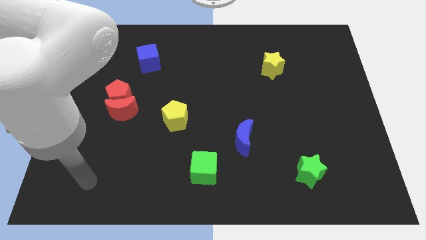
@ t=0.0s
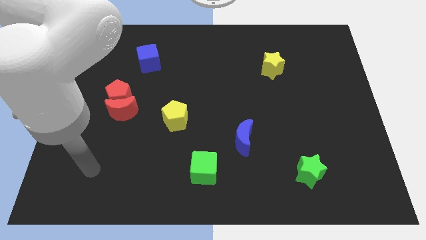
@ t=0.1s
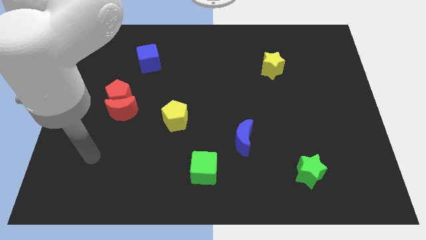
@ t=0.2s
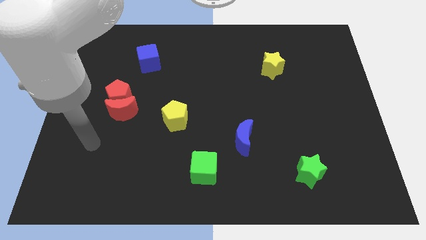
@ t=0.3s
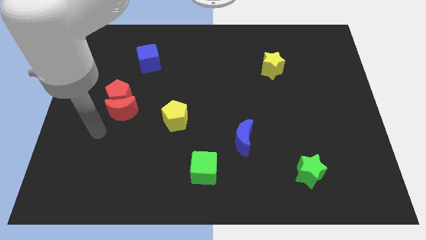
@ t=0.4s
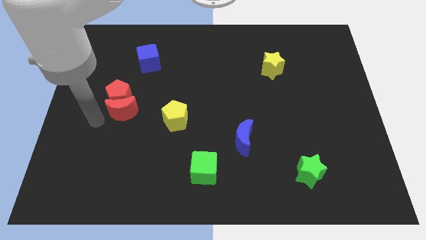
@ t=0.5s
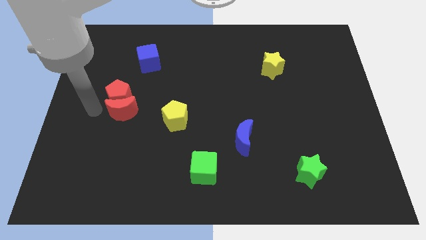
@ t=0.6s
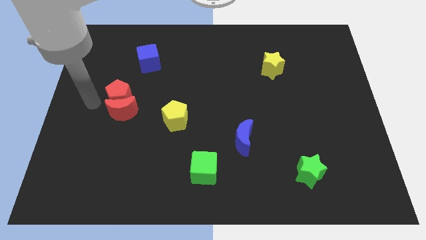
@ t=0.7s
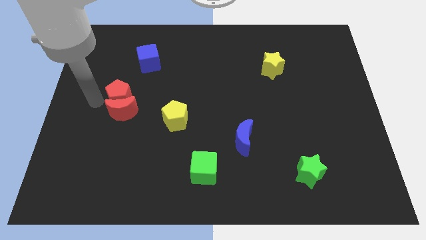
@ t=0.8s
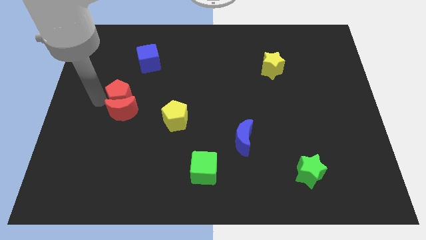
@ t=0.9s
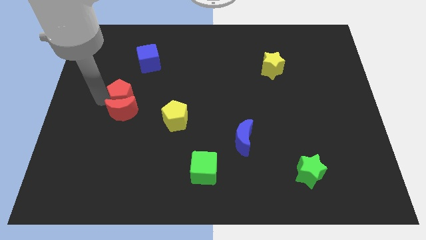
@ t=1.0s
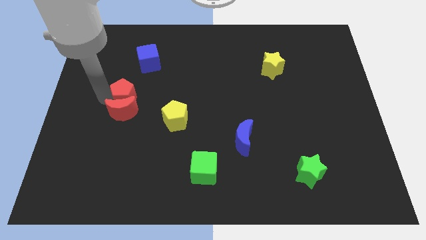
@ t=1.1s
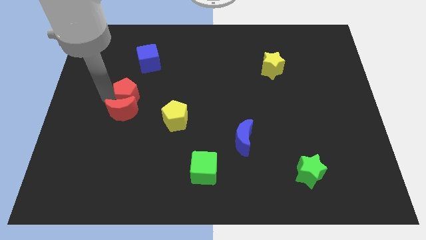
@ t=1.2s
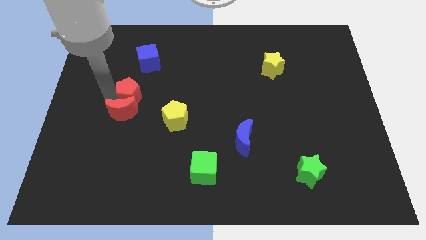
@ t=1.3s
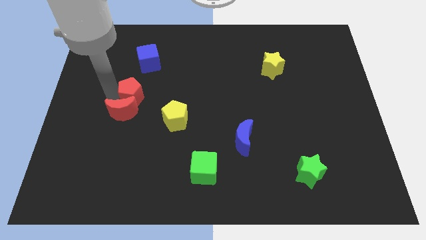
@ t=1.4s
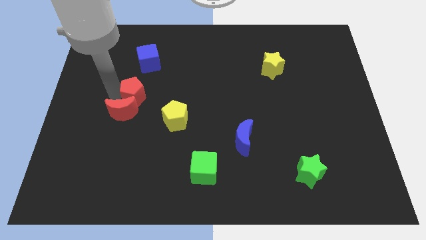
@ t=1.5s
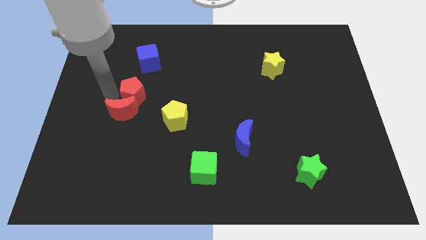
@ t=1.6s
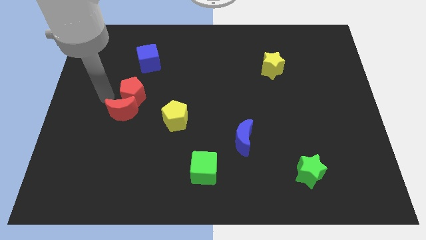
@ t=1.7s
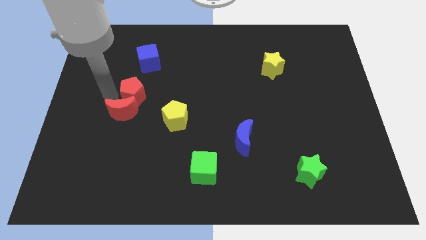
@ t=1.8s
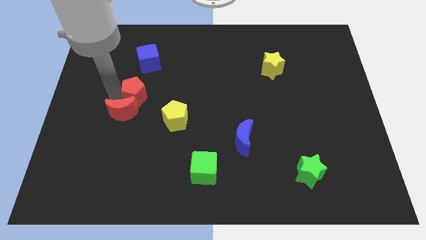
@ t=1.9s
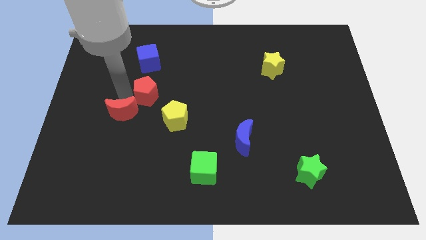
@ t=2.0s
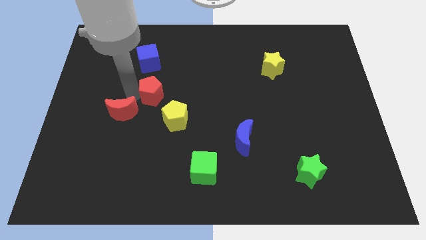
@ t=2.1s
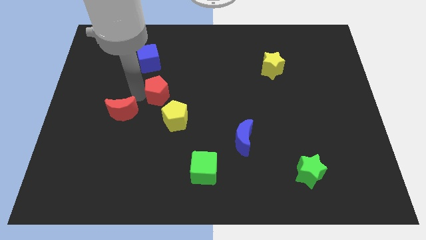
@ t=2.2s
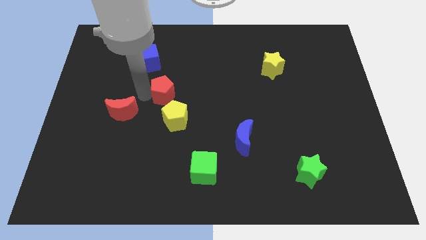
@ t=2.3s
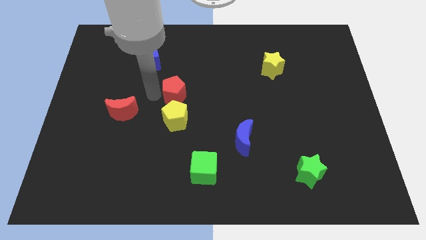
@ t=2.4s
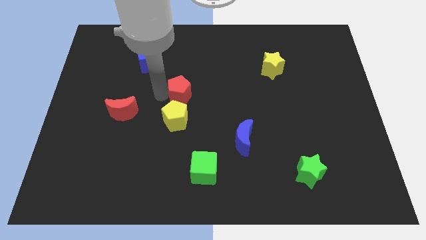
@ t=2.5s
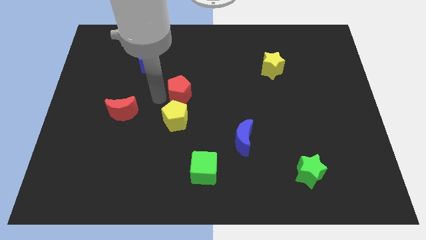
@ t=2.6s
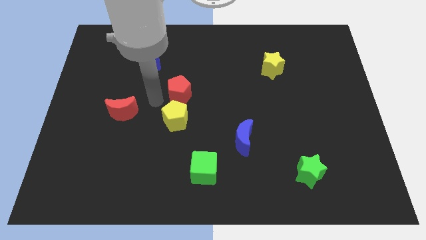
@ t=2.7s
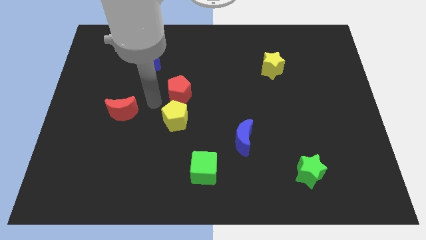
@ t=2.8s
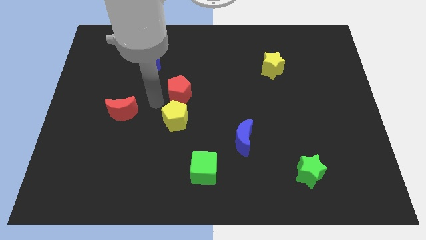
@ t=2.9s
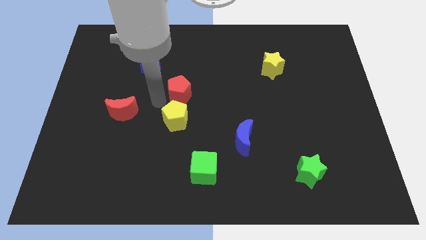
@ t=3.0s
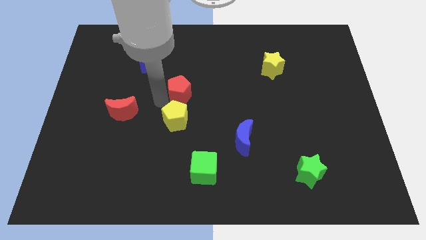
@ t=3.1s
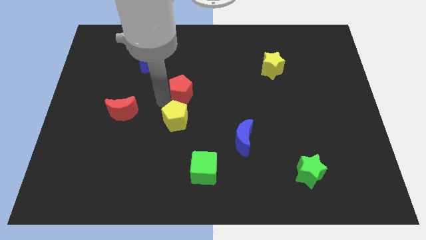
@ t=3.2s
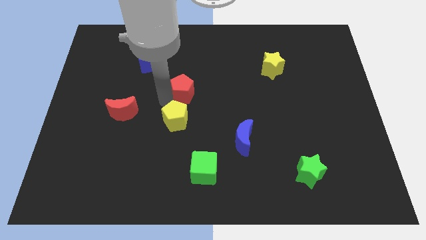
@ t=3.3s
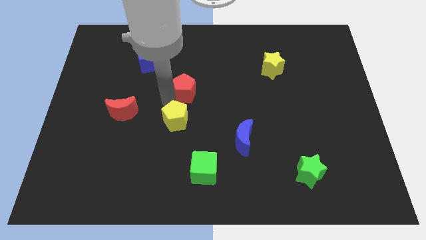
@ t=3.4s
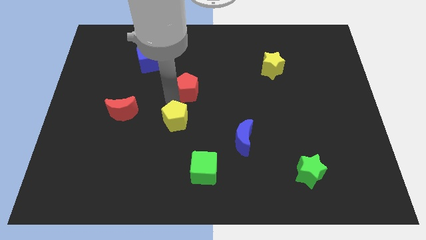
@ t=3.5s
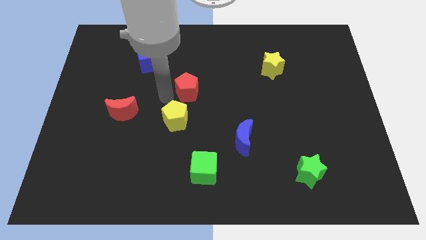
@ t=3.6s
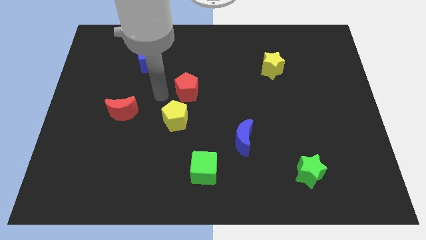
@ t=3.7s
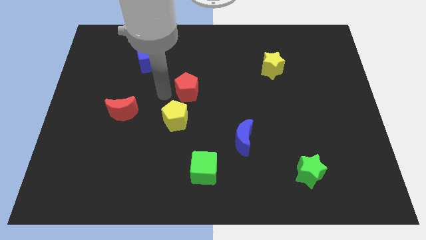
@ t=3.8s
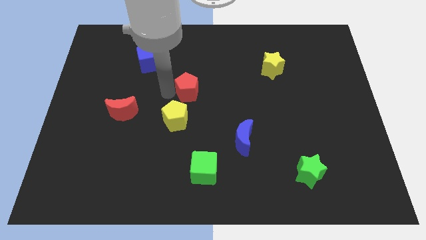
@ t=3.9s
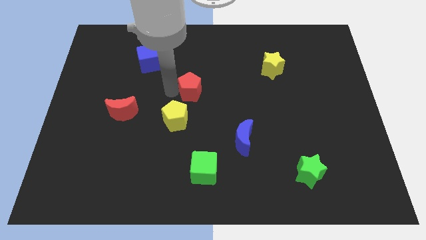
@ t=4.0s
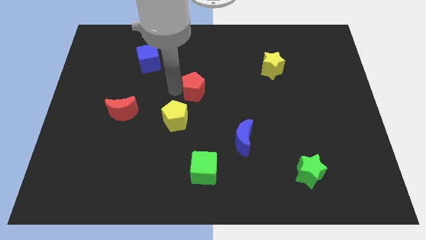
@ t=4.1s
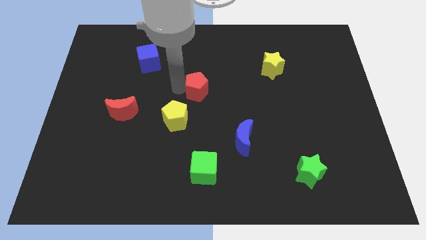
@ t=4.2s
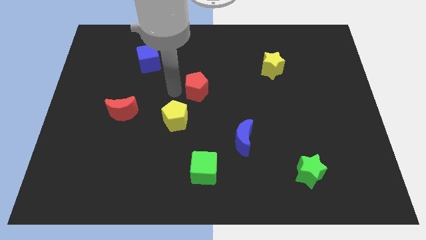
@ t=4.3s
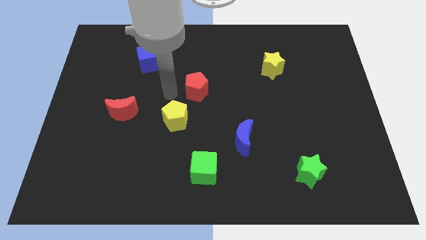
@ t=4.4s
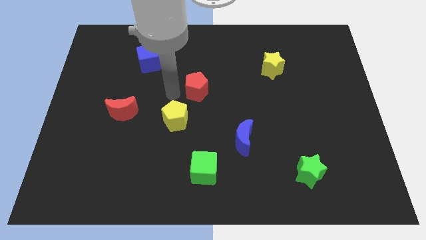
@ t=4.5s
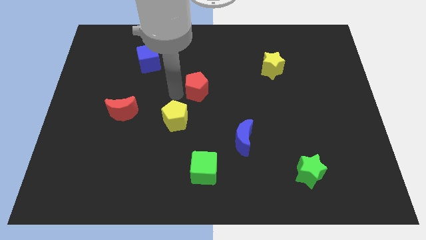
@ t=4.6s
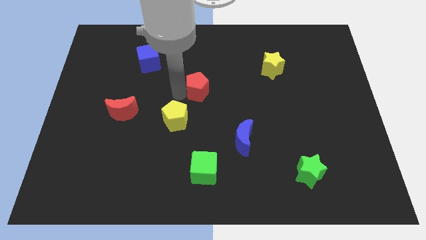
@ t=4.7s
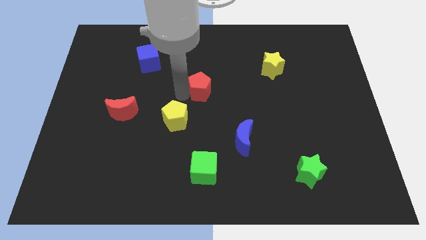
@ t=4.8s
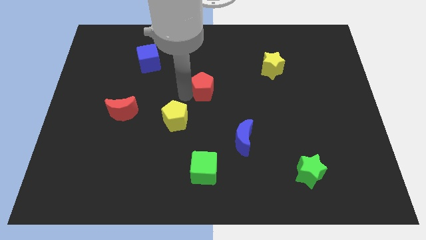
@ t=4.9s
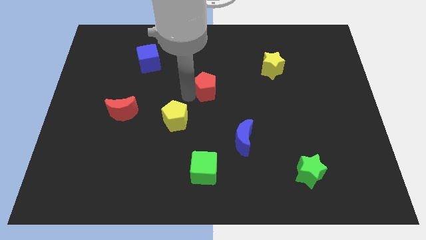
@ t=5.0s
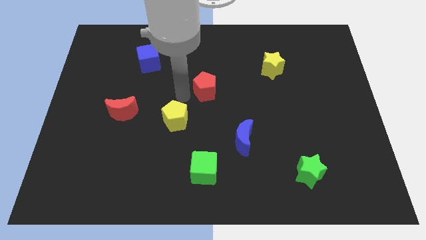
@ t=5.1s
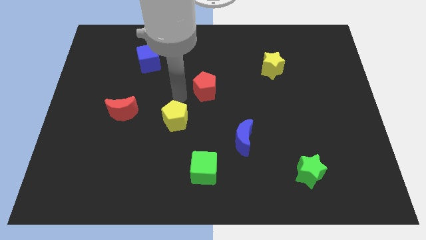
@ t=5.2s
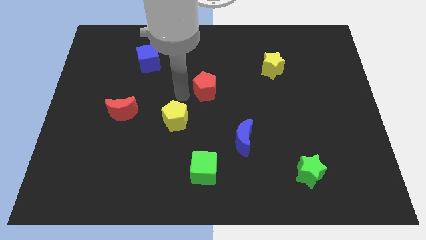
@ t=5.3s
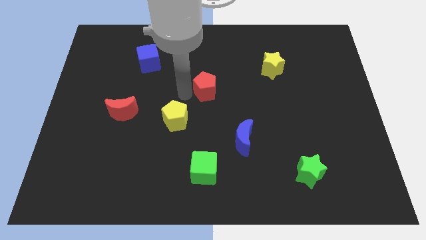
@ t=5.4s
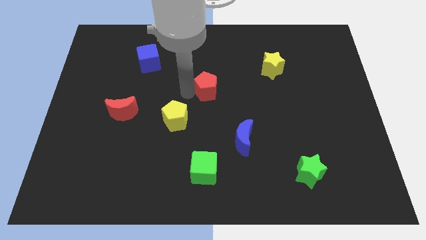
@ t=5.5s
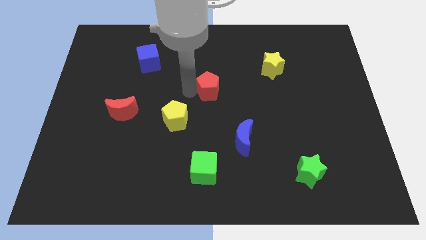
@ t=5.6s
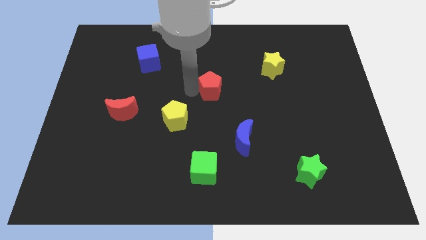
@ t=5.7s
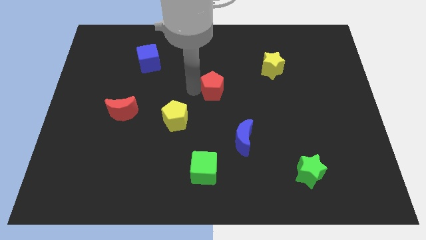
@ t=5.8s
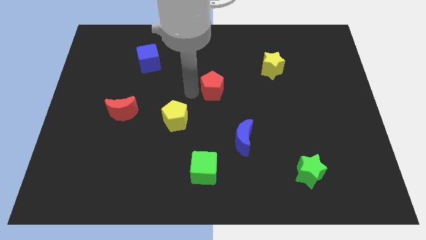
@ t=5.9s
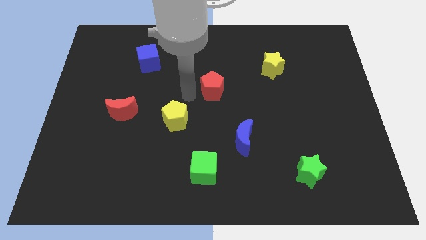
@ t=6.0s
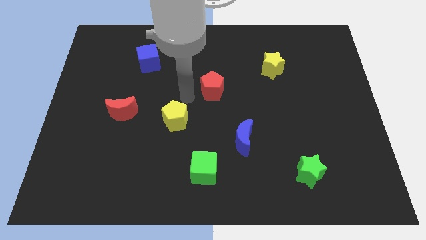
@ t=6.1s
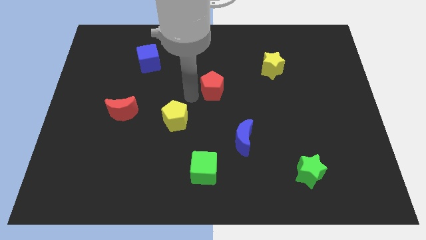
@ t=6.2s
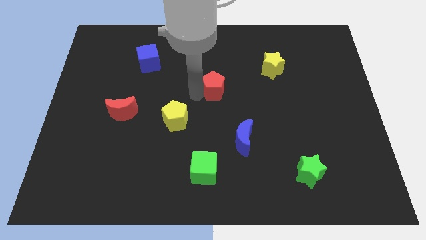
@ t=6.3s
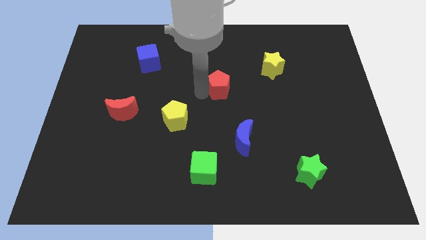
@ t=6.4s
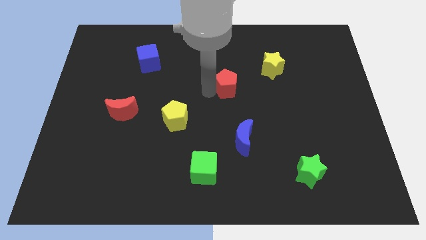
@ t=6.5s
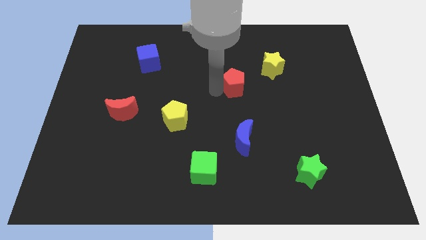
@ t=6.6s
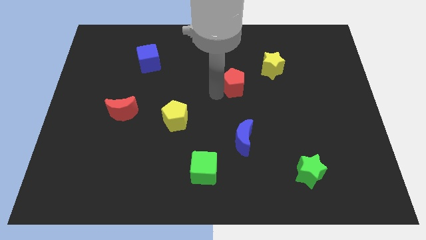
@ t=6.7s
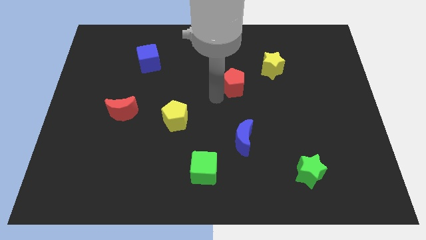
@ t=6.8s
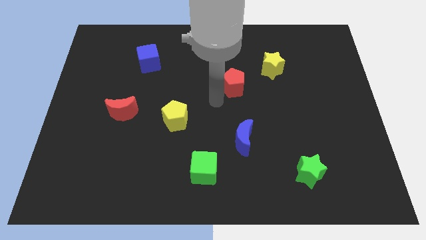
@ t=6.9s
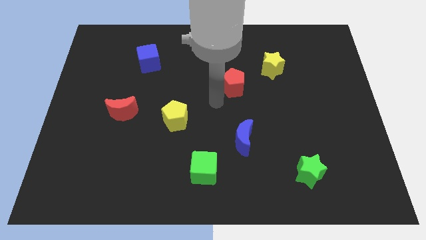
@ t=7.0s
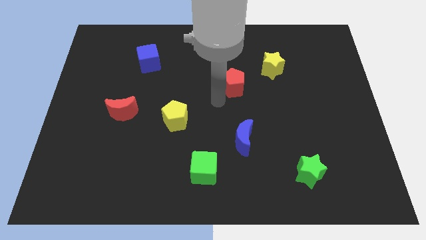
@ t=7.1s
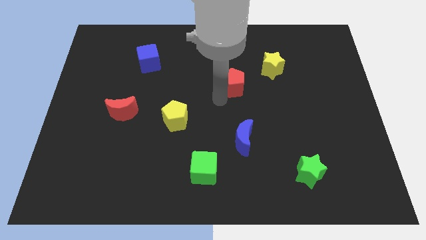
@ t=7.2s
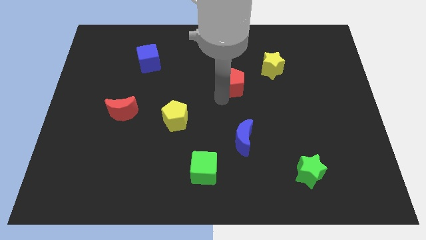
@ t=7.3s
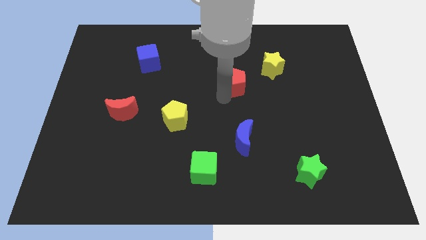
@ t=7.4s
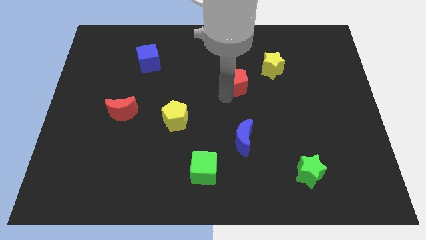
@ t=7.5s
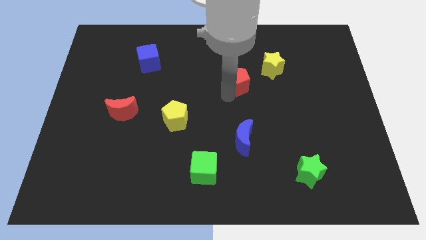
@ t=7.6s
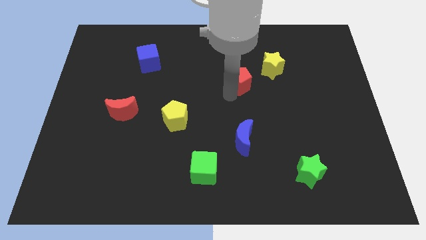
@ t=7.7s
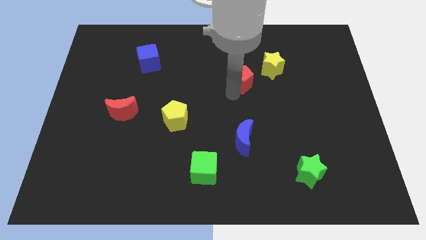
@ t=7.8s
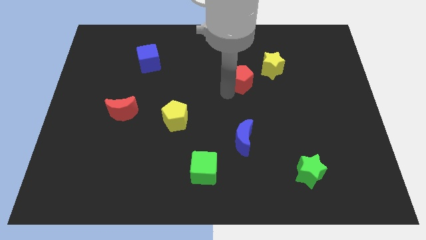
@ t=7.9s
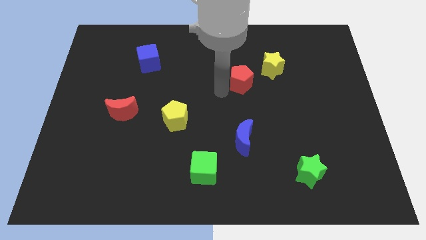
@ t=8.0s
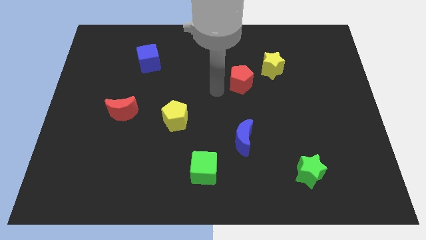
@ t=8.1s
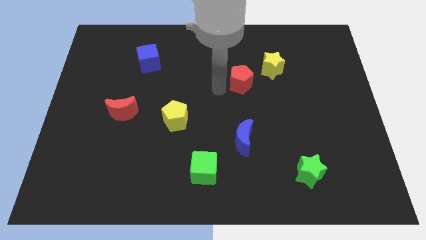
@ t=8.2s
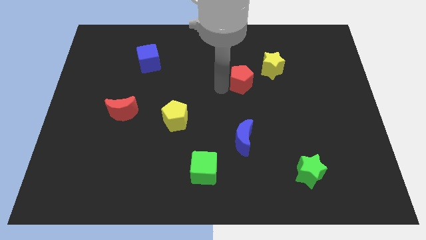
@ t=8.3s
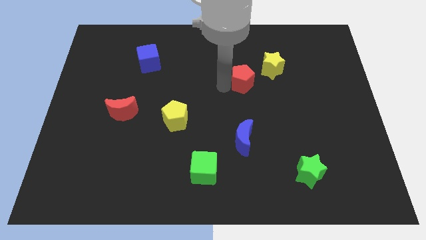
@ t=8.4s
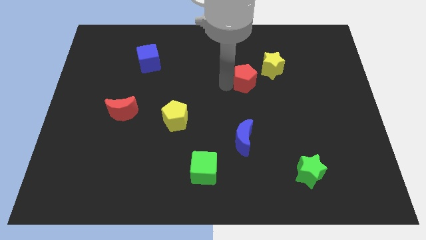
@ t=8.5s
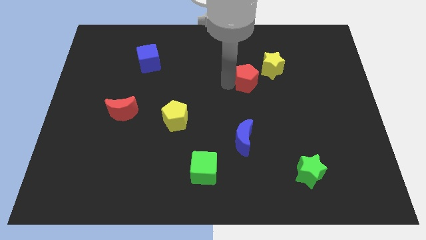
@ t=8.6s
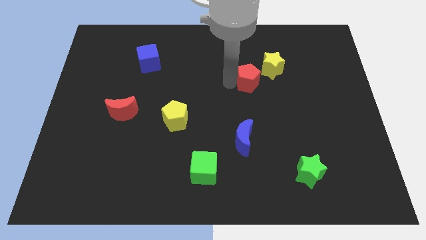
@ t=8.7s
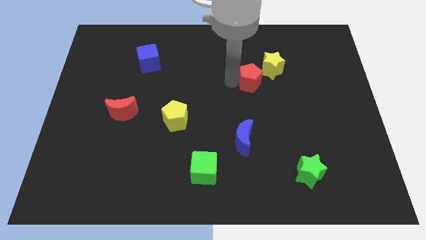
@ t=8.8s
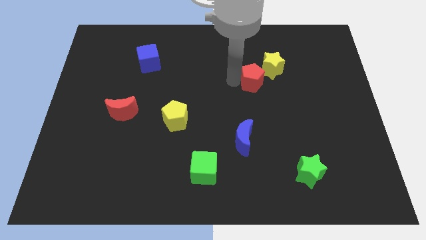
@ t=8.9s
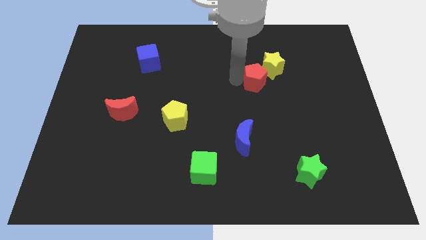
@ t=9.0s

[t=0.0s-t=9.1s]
move the red pentagon close to the yellow star
